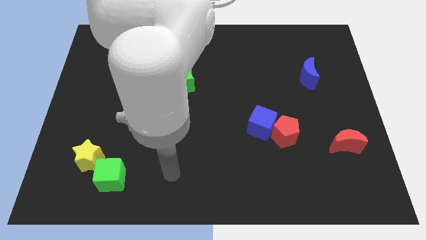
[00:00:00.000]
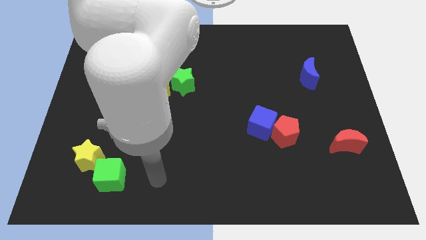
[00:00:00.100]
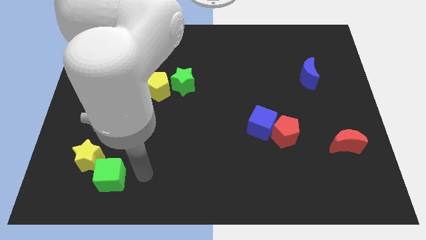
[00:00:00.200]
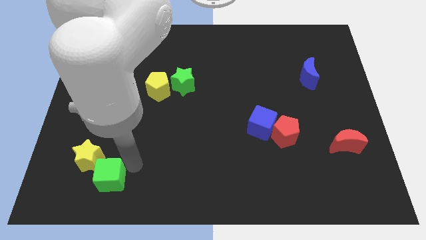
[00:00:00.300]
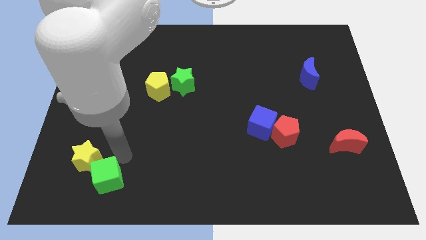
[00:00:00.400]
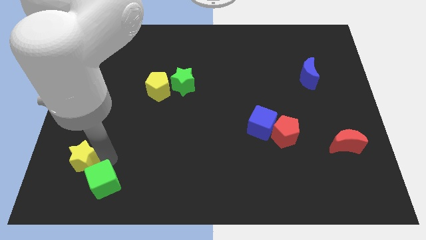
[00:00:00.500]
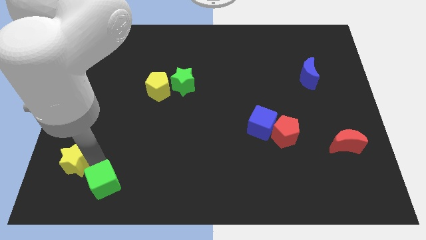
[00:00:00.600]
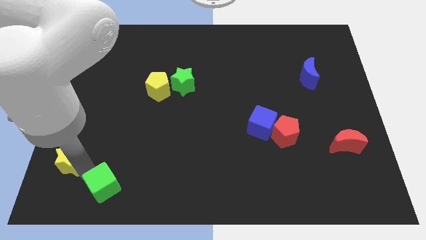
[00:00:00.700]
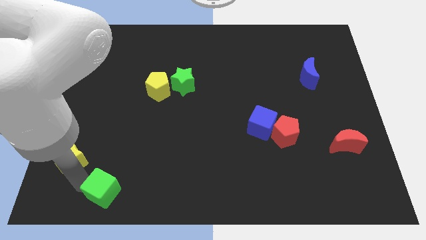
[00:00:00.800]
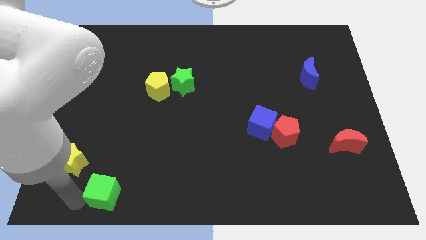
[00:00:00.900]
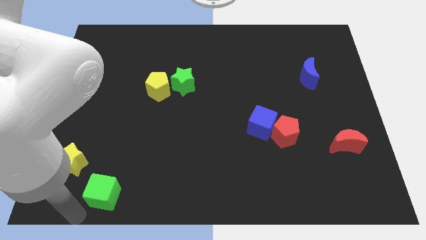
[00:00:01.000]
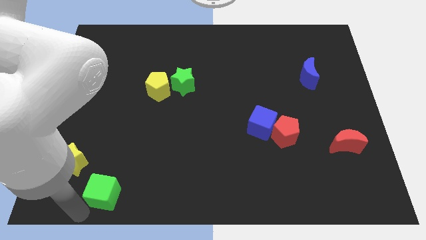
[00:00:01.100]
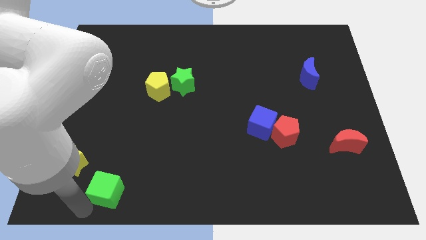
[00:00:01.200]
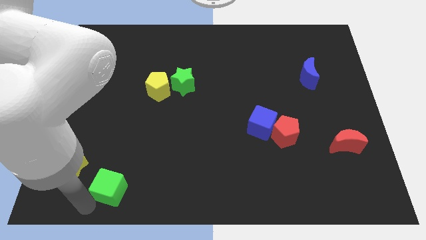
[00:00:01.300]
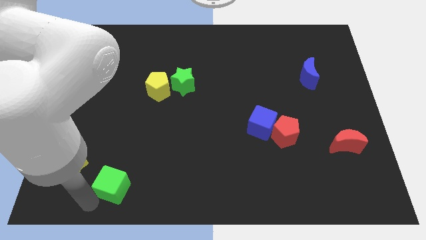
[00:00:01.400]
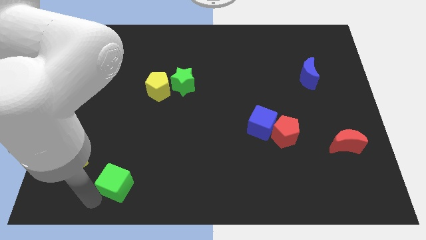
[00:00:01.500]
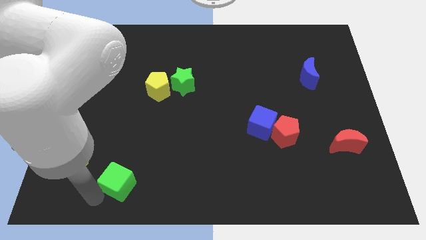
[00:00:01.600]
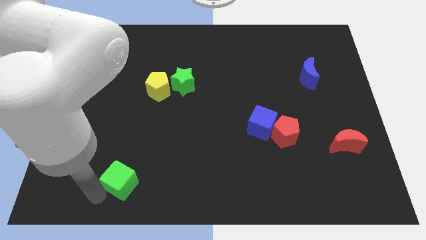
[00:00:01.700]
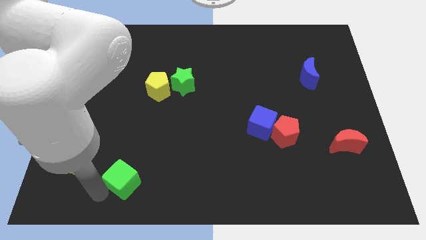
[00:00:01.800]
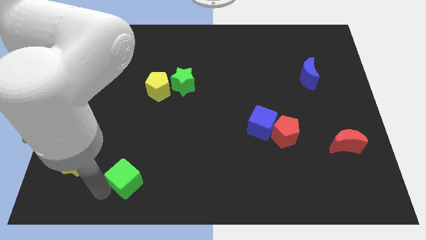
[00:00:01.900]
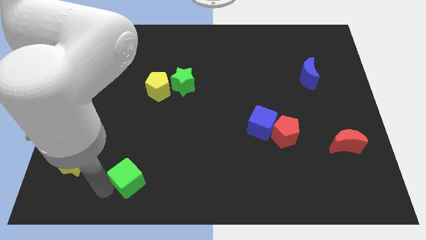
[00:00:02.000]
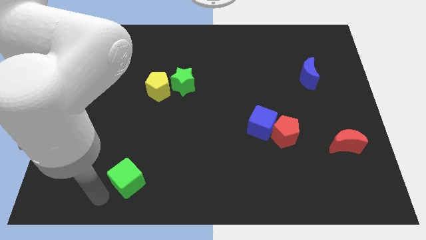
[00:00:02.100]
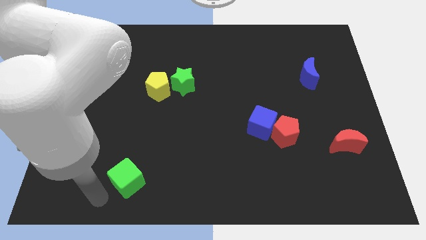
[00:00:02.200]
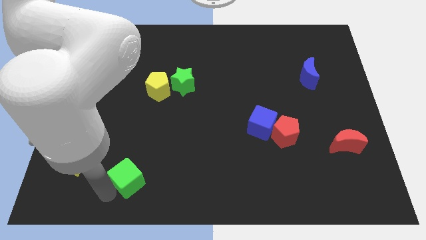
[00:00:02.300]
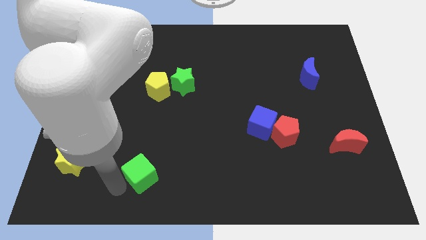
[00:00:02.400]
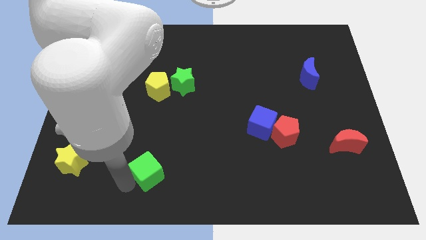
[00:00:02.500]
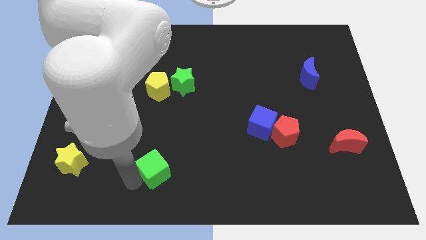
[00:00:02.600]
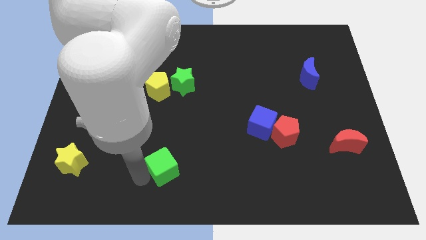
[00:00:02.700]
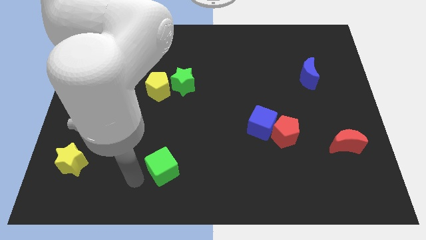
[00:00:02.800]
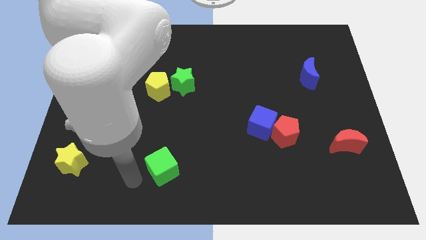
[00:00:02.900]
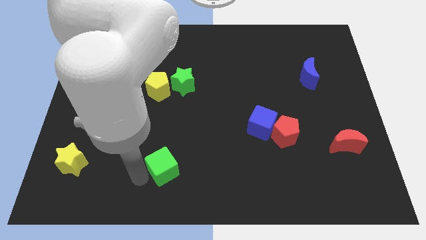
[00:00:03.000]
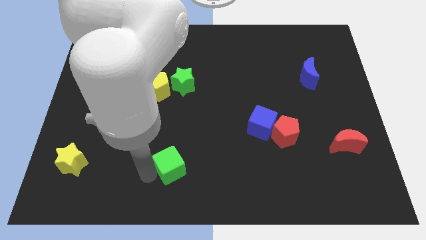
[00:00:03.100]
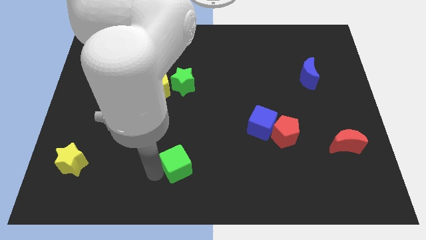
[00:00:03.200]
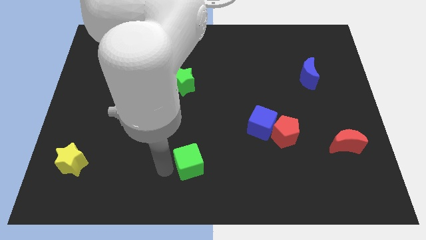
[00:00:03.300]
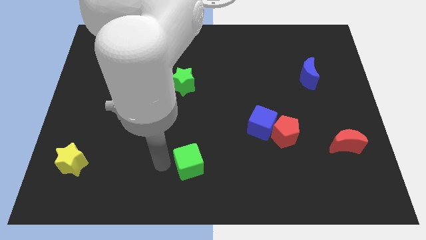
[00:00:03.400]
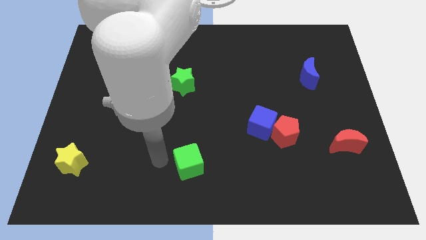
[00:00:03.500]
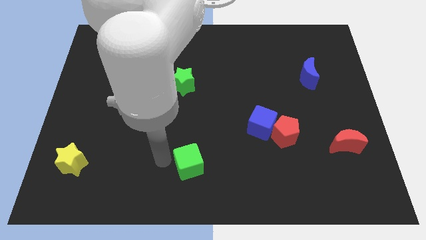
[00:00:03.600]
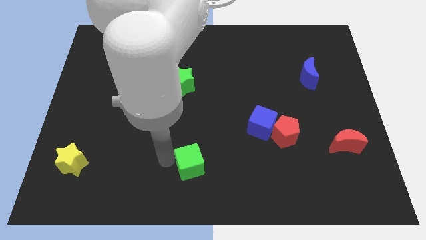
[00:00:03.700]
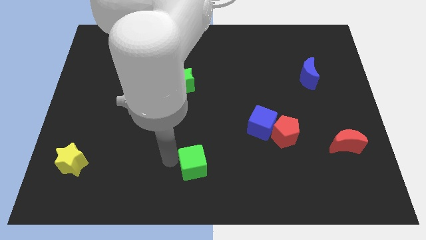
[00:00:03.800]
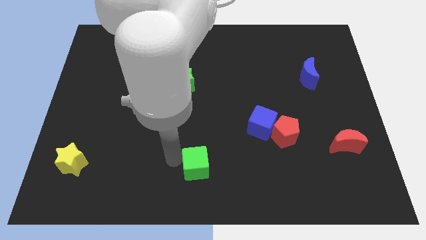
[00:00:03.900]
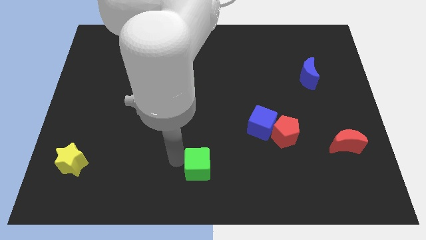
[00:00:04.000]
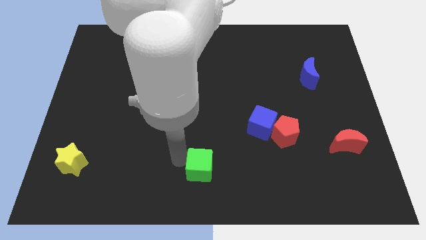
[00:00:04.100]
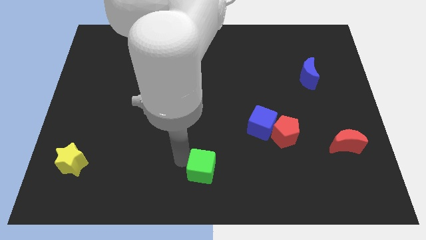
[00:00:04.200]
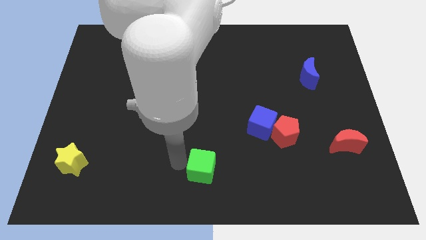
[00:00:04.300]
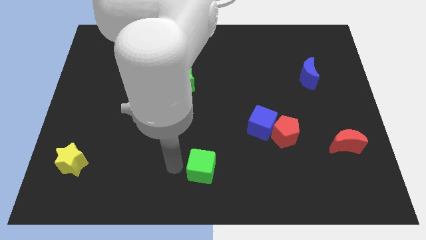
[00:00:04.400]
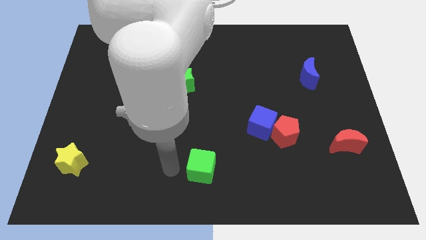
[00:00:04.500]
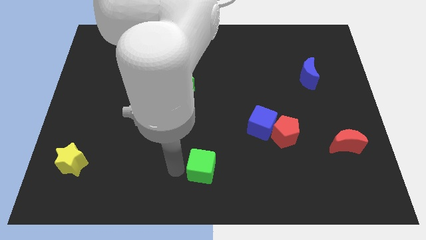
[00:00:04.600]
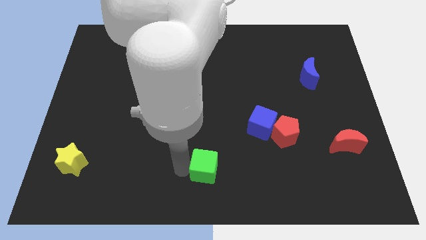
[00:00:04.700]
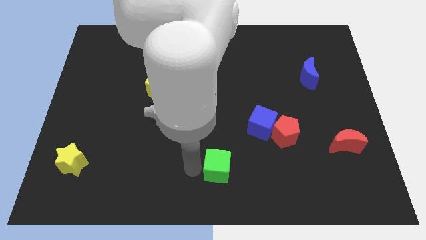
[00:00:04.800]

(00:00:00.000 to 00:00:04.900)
push the green cube to the right

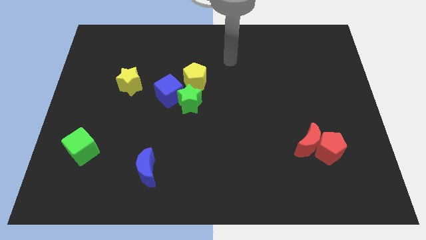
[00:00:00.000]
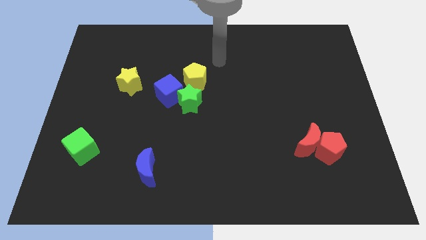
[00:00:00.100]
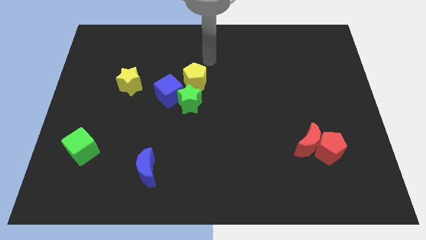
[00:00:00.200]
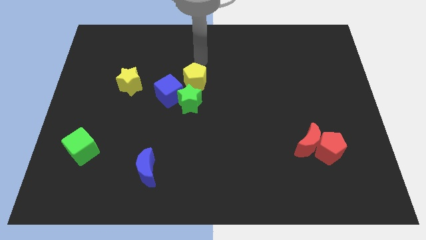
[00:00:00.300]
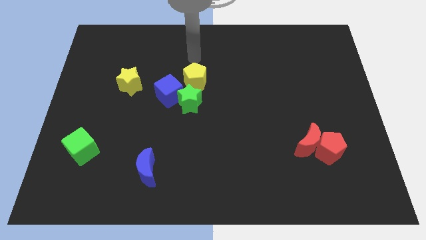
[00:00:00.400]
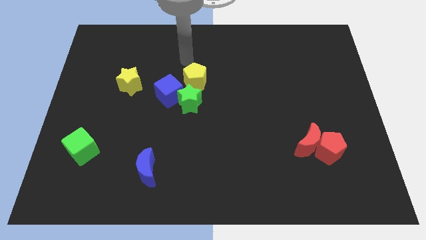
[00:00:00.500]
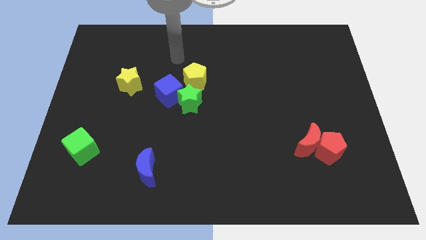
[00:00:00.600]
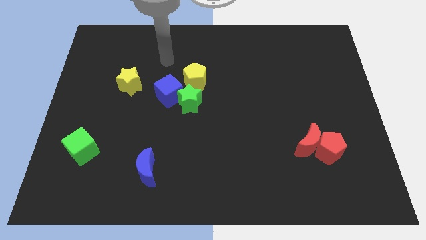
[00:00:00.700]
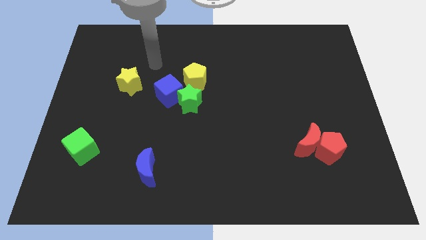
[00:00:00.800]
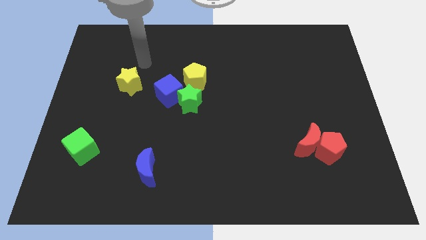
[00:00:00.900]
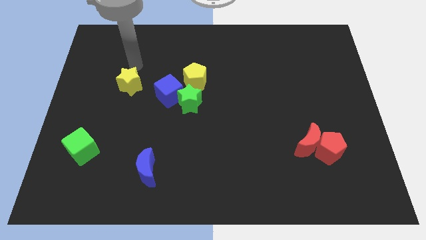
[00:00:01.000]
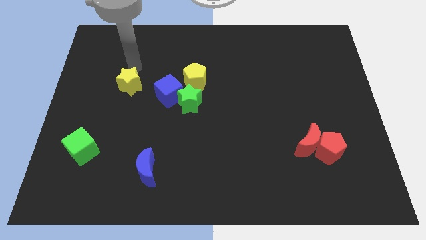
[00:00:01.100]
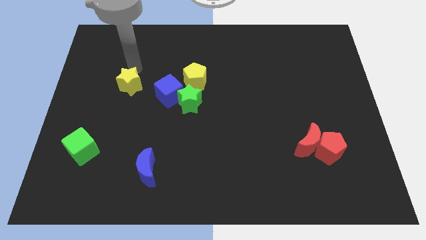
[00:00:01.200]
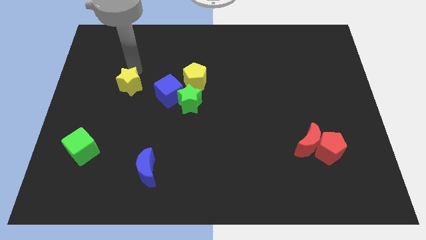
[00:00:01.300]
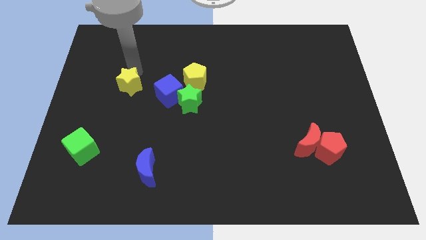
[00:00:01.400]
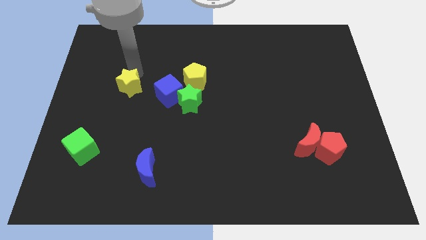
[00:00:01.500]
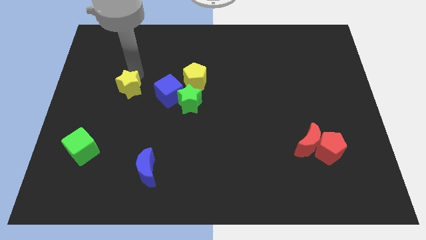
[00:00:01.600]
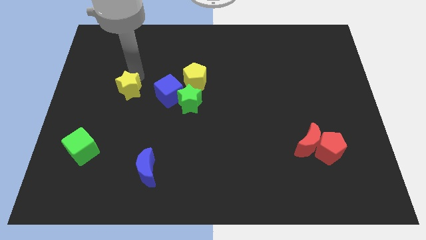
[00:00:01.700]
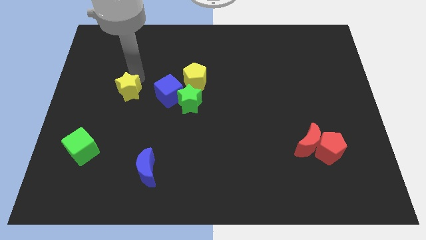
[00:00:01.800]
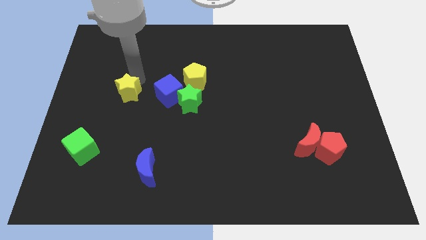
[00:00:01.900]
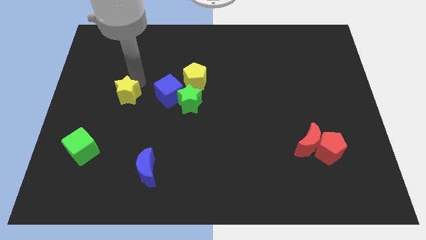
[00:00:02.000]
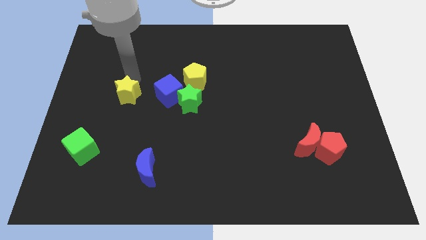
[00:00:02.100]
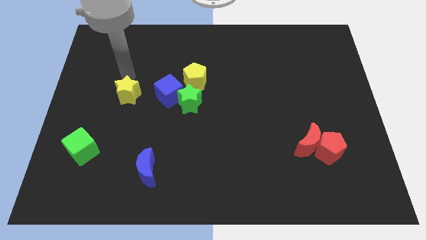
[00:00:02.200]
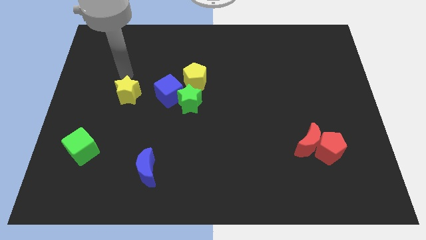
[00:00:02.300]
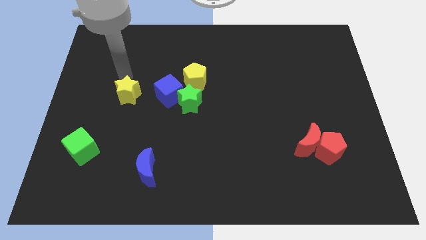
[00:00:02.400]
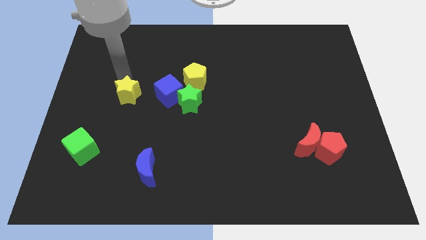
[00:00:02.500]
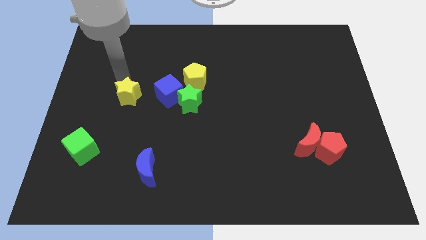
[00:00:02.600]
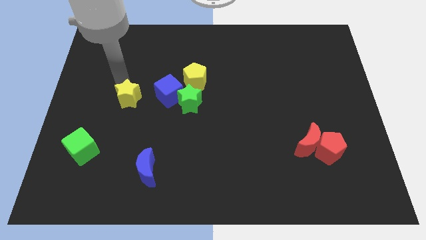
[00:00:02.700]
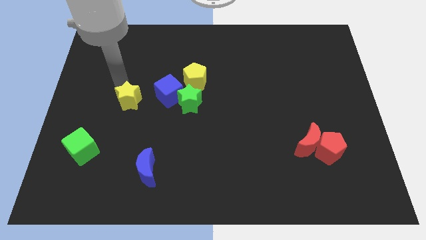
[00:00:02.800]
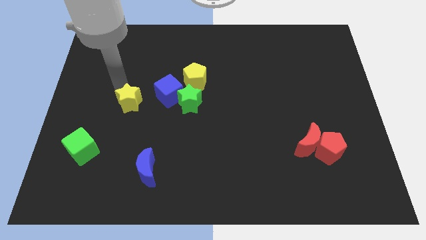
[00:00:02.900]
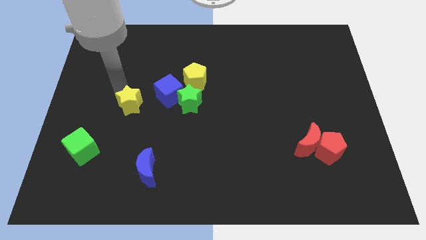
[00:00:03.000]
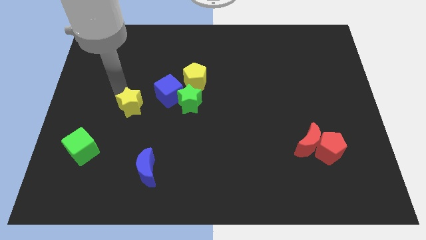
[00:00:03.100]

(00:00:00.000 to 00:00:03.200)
slide the yellow star a little bit down
